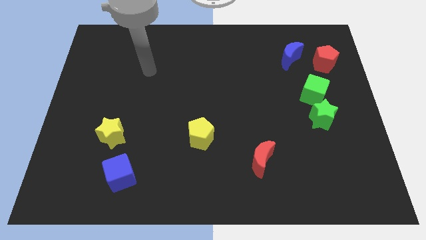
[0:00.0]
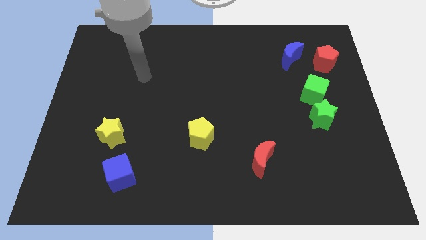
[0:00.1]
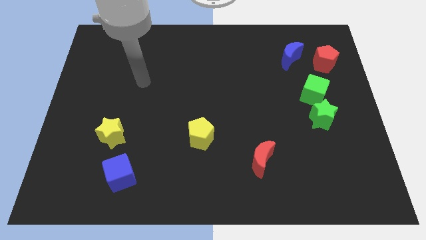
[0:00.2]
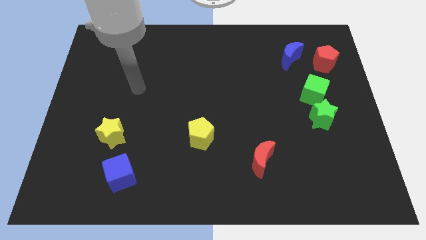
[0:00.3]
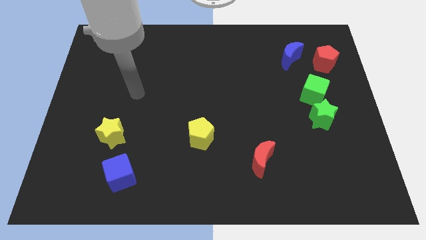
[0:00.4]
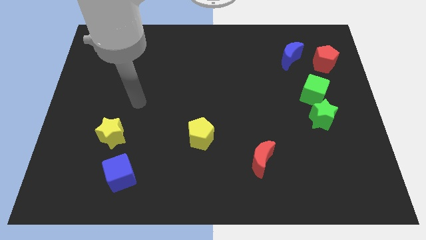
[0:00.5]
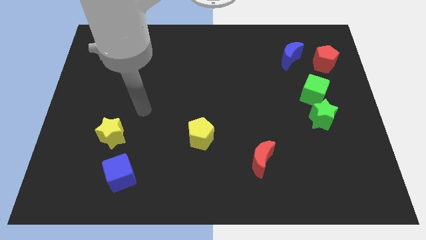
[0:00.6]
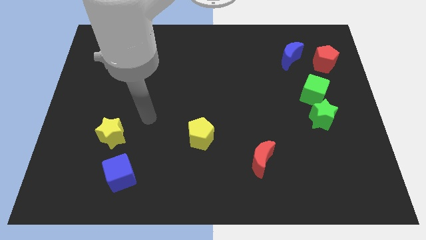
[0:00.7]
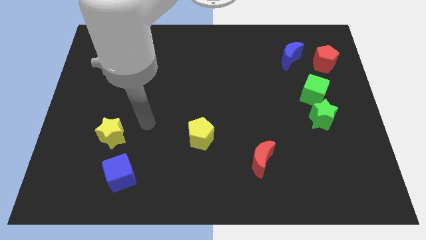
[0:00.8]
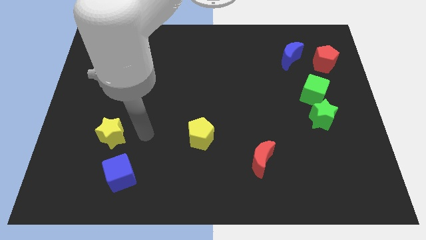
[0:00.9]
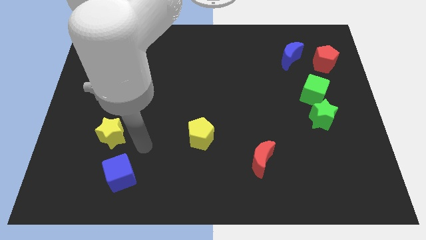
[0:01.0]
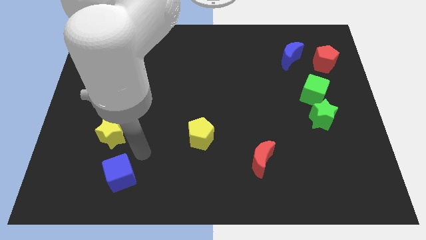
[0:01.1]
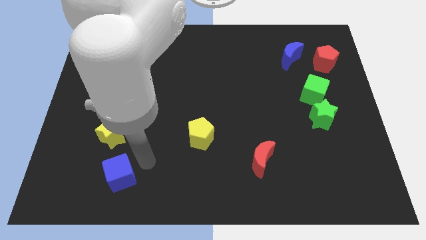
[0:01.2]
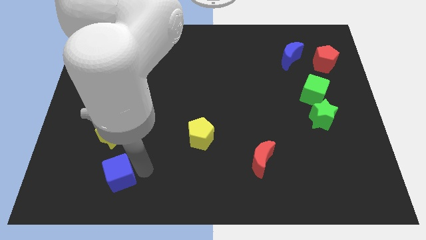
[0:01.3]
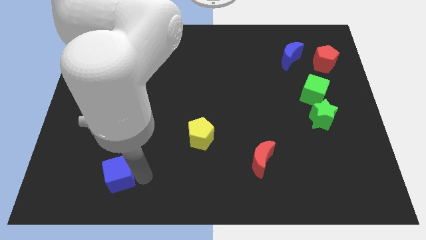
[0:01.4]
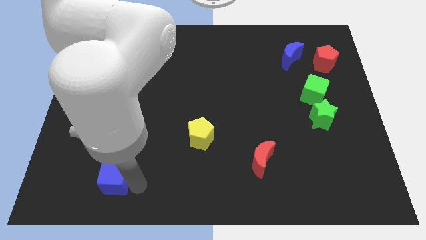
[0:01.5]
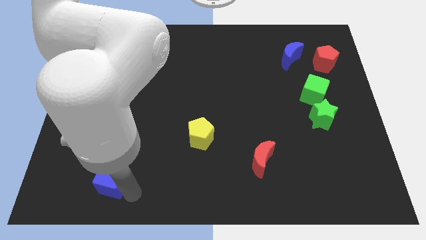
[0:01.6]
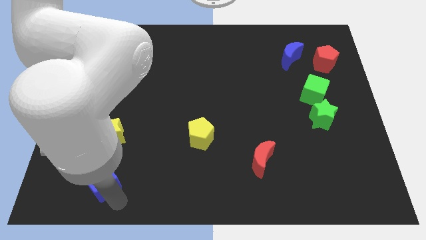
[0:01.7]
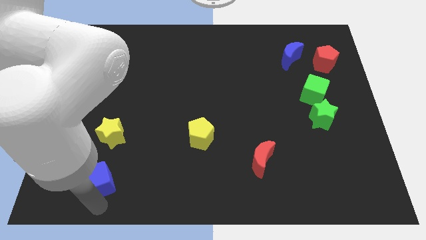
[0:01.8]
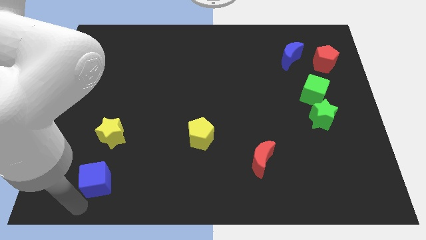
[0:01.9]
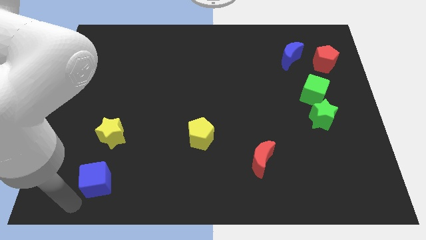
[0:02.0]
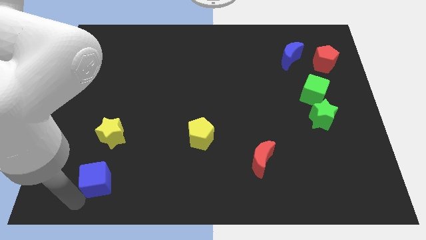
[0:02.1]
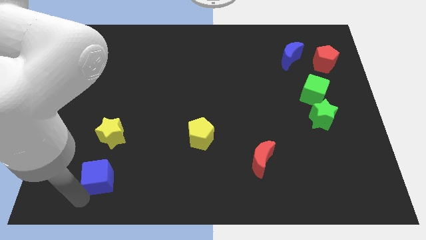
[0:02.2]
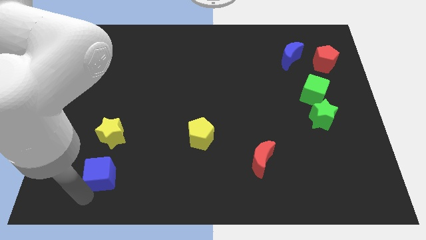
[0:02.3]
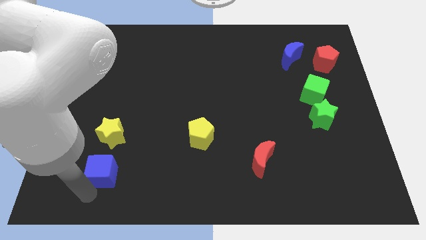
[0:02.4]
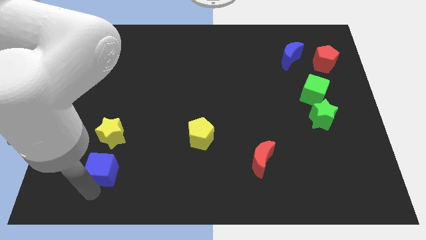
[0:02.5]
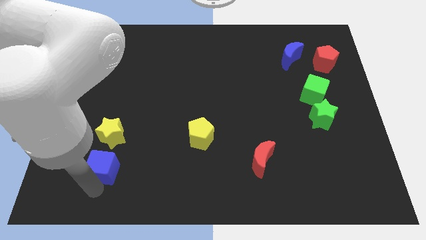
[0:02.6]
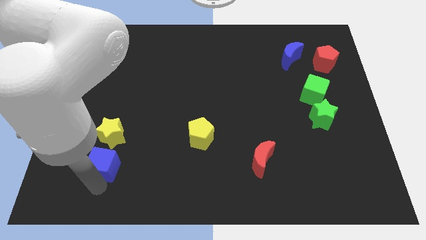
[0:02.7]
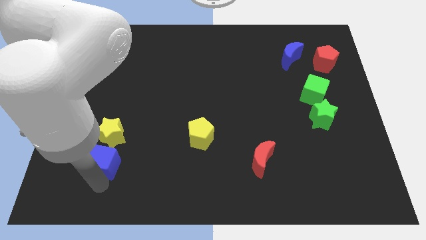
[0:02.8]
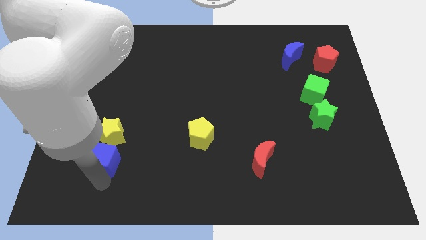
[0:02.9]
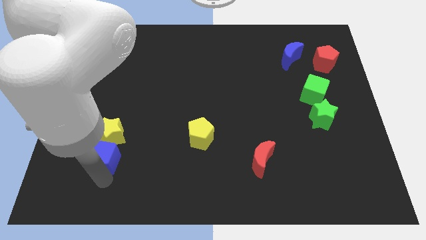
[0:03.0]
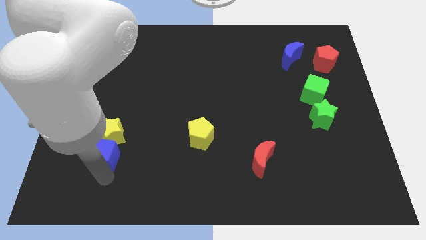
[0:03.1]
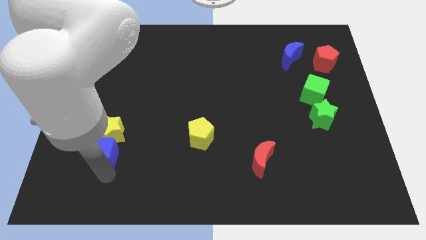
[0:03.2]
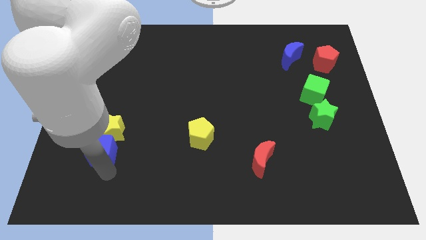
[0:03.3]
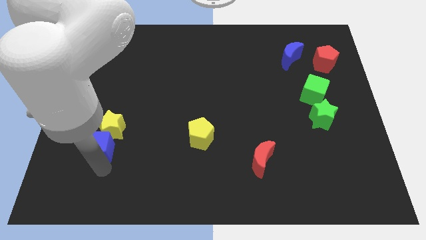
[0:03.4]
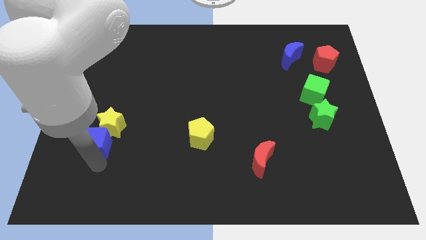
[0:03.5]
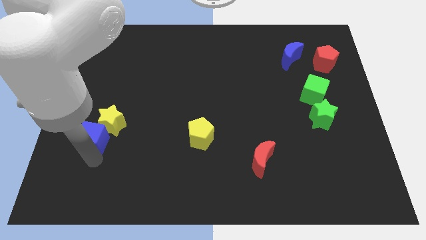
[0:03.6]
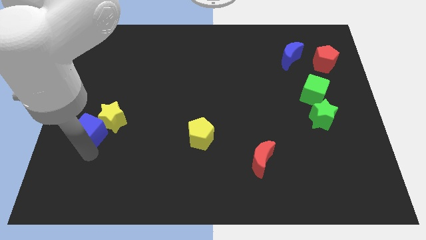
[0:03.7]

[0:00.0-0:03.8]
push the blue cube slightly up

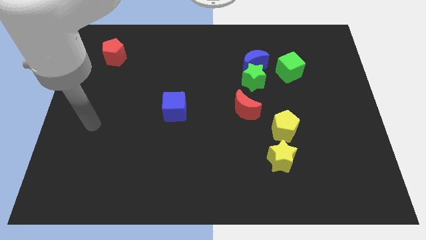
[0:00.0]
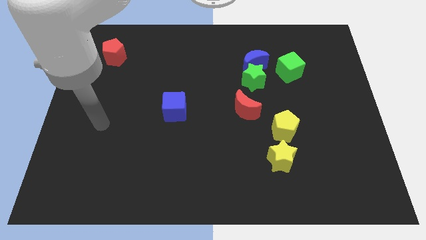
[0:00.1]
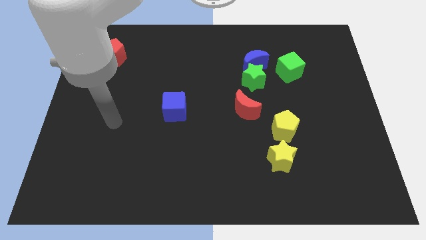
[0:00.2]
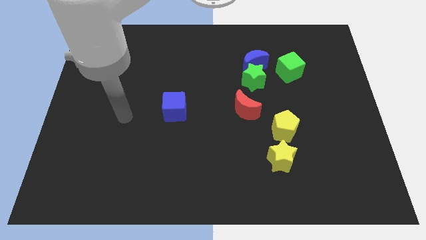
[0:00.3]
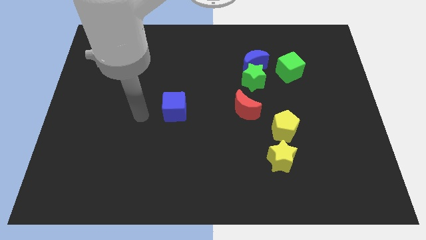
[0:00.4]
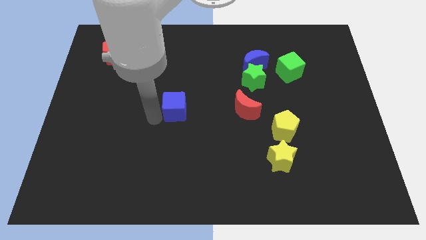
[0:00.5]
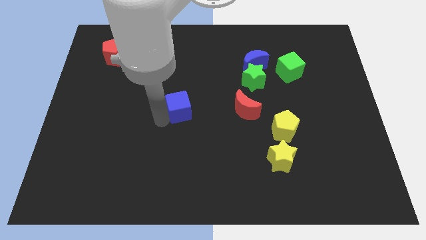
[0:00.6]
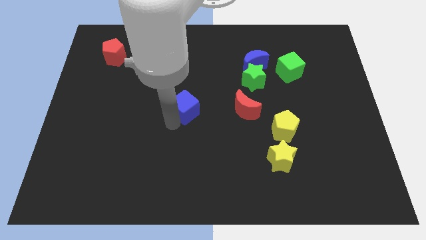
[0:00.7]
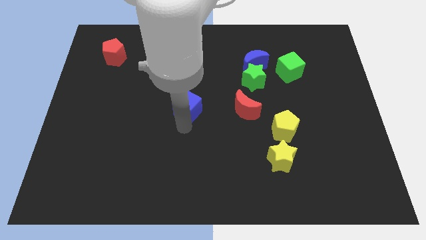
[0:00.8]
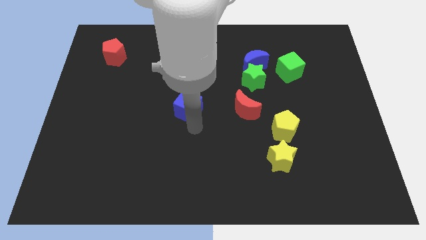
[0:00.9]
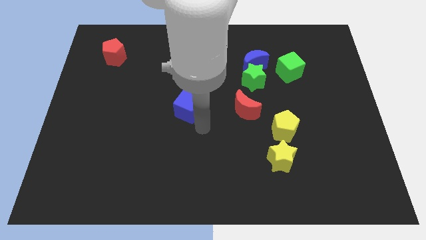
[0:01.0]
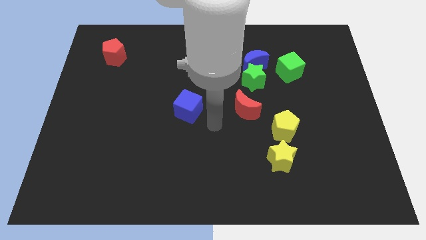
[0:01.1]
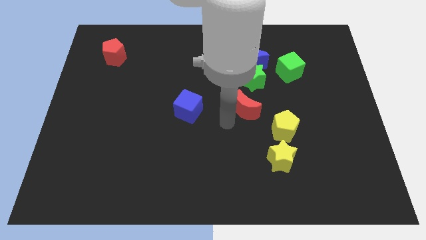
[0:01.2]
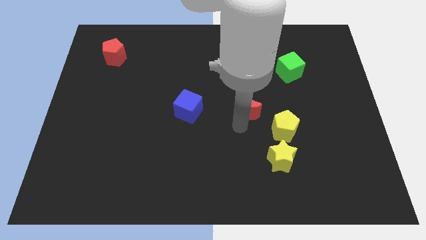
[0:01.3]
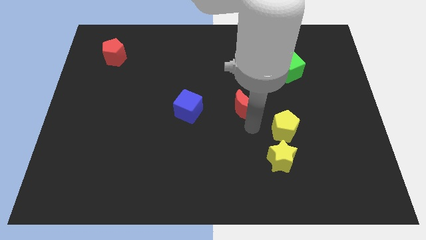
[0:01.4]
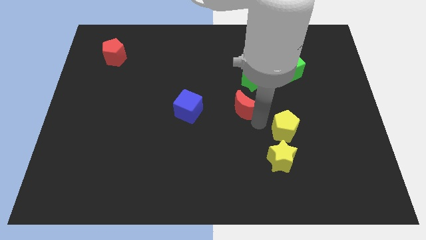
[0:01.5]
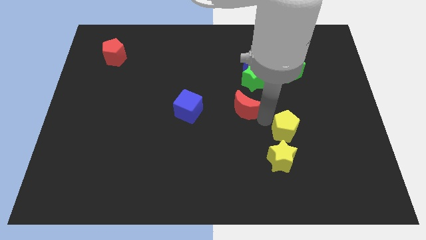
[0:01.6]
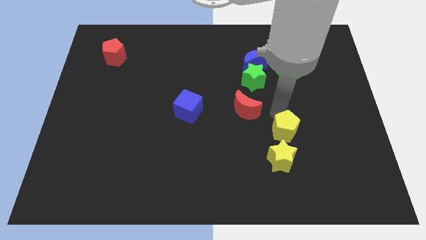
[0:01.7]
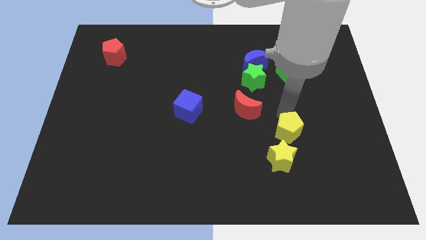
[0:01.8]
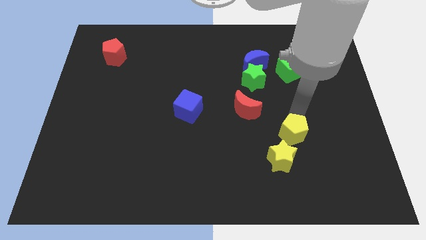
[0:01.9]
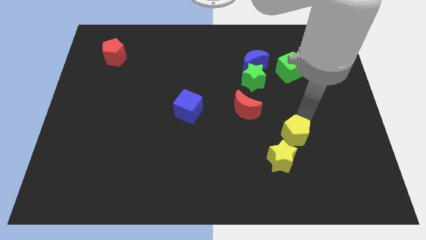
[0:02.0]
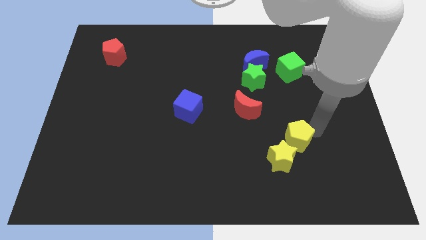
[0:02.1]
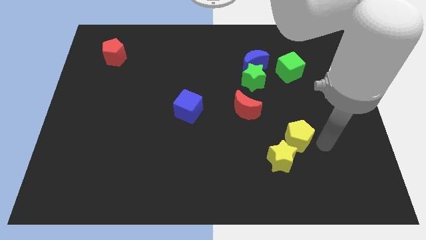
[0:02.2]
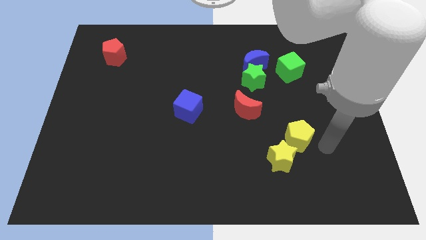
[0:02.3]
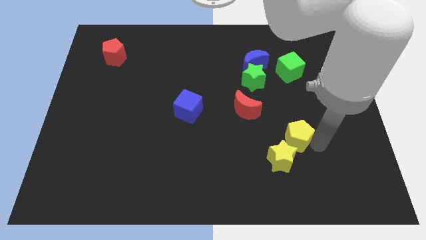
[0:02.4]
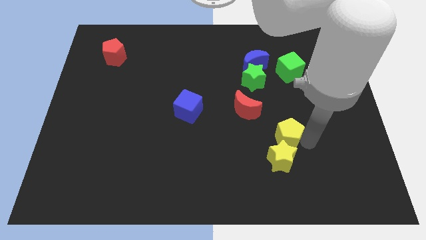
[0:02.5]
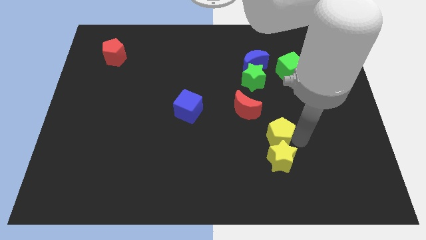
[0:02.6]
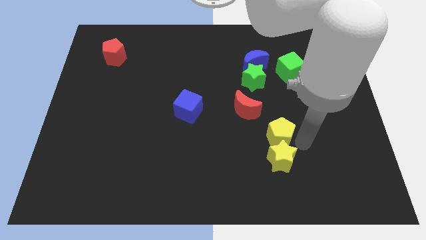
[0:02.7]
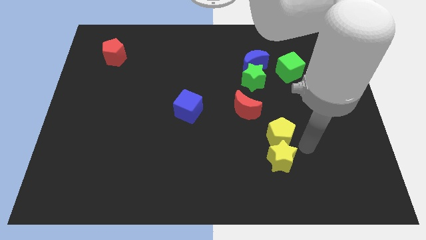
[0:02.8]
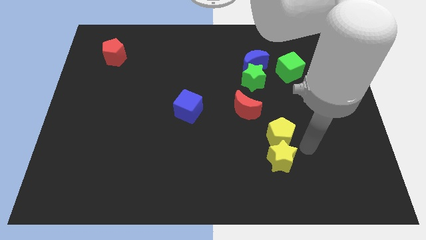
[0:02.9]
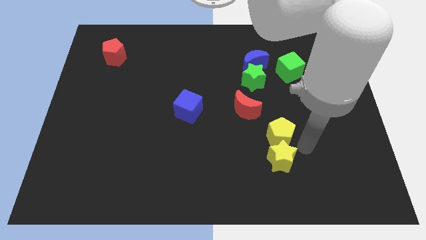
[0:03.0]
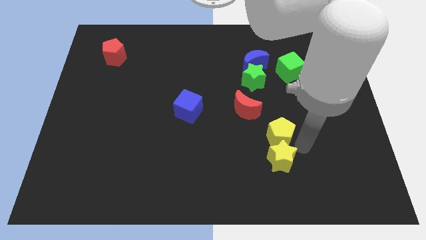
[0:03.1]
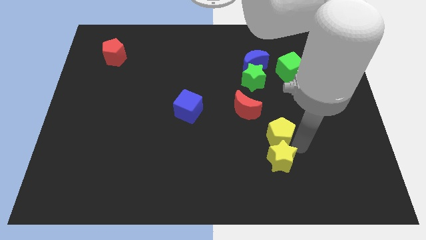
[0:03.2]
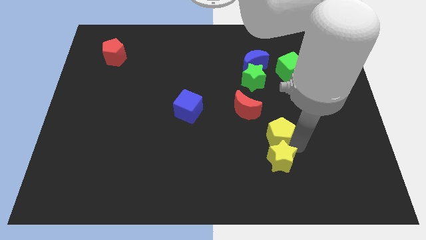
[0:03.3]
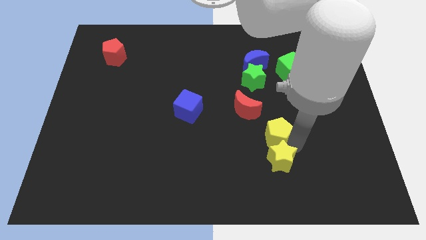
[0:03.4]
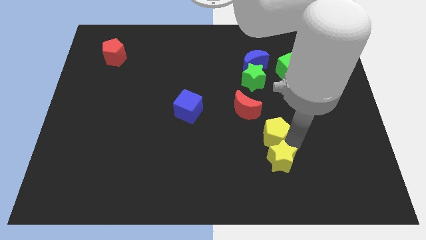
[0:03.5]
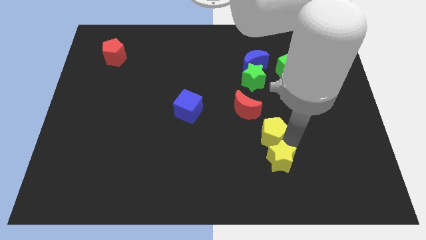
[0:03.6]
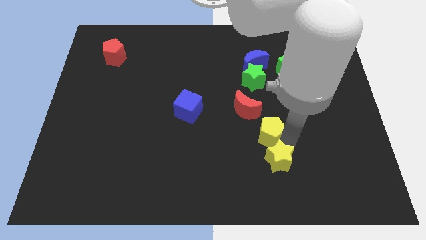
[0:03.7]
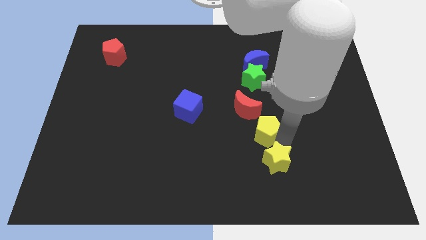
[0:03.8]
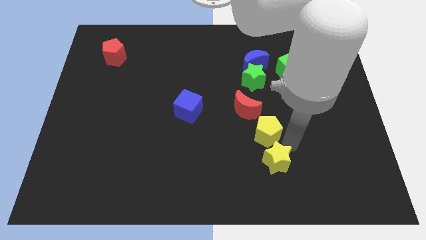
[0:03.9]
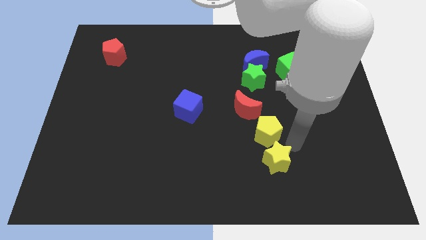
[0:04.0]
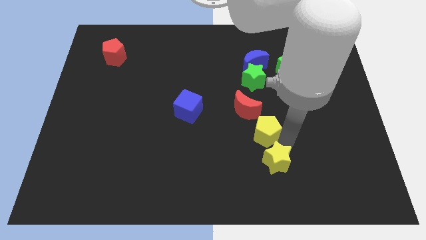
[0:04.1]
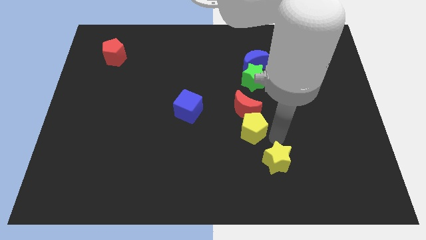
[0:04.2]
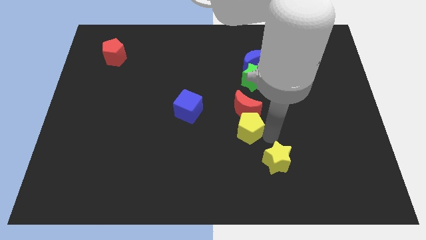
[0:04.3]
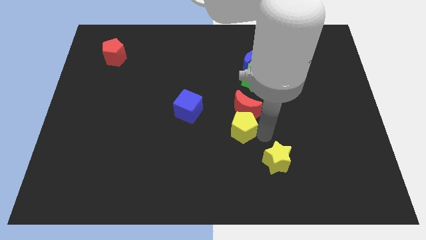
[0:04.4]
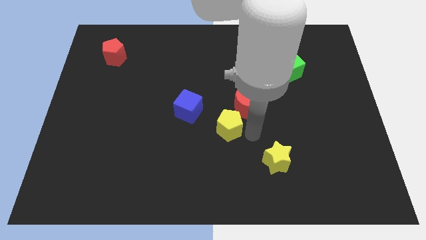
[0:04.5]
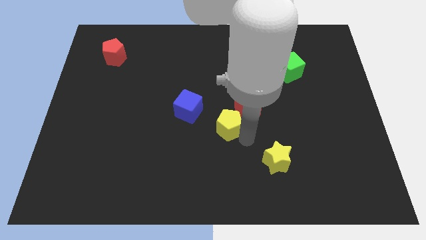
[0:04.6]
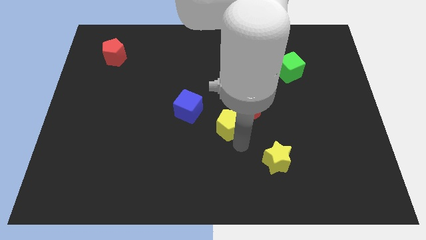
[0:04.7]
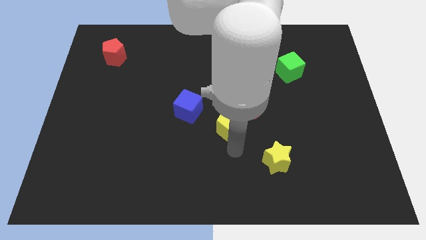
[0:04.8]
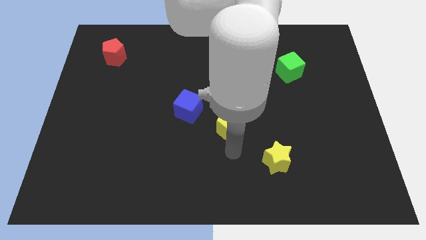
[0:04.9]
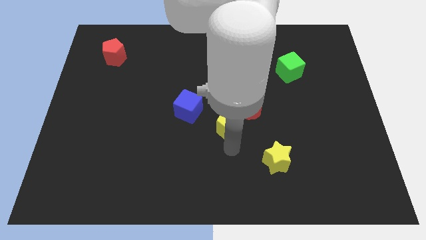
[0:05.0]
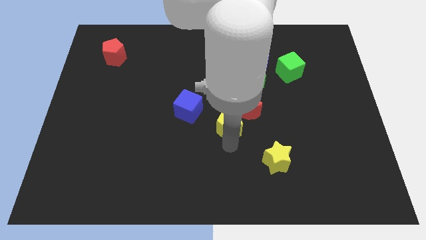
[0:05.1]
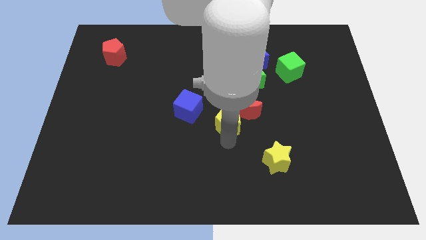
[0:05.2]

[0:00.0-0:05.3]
move the yellow pentagon a bit upwards and then left
